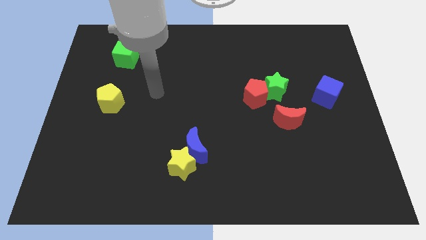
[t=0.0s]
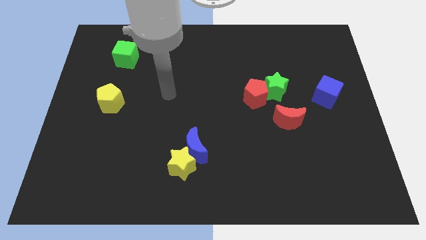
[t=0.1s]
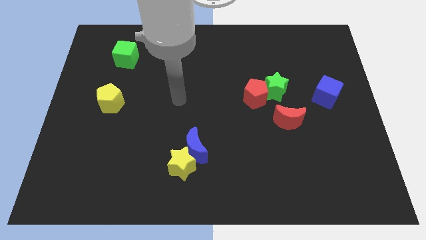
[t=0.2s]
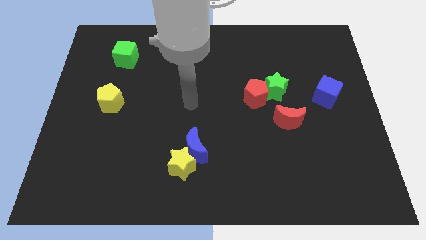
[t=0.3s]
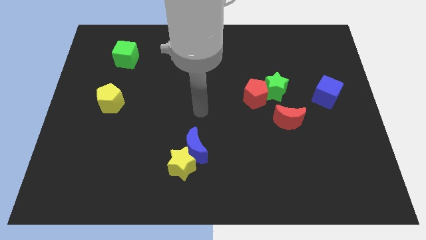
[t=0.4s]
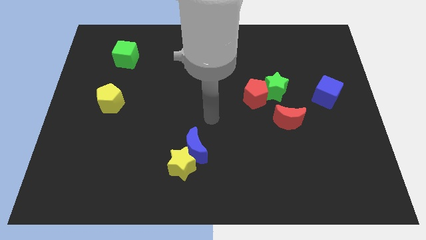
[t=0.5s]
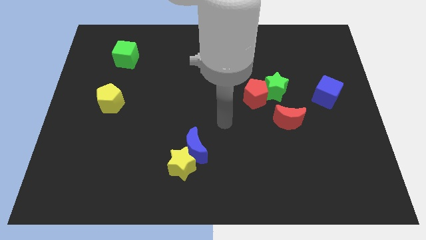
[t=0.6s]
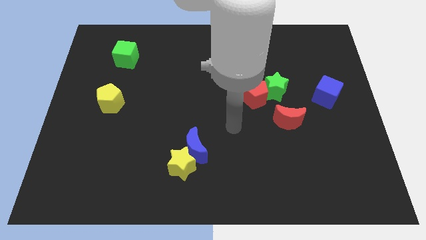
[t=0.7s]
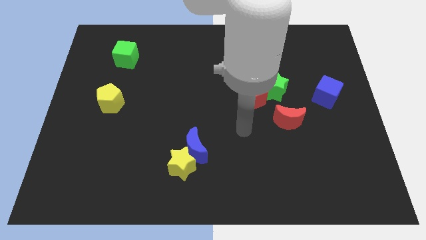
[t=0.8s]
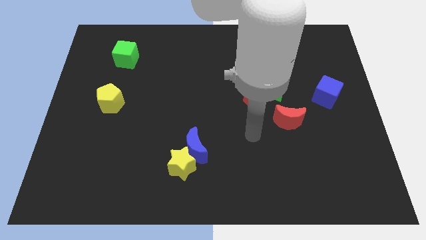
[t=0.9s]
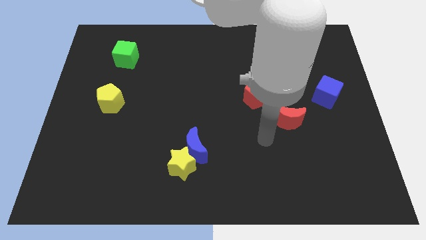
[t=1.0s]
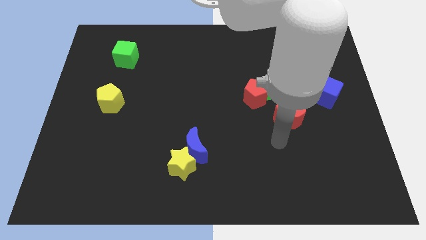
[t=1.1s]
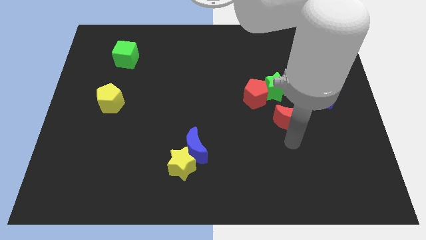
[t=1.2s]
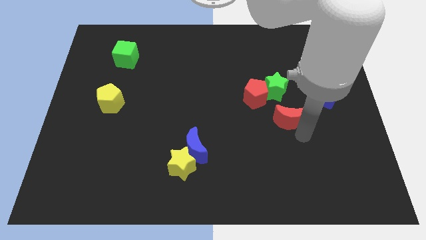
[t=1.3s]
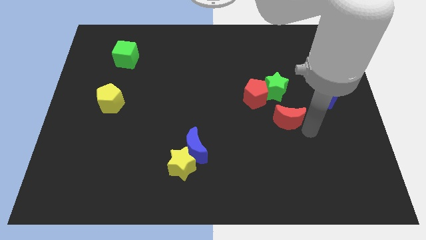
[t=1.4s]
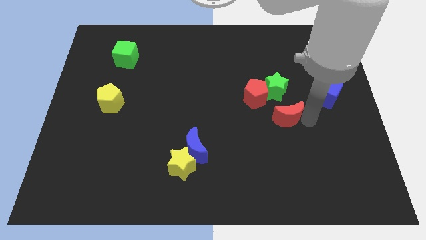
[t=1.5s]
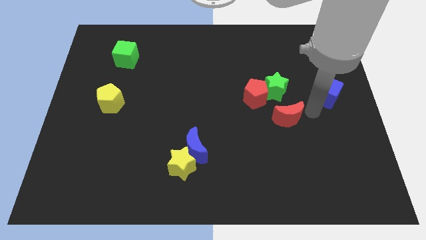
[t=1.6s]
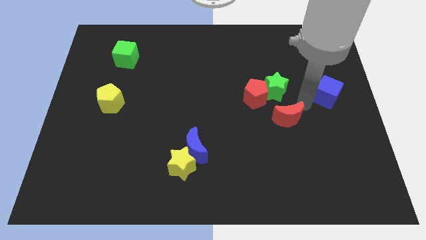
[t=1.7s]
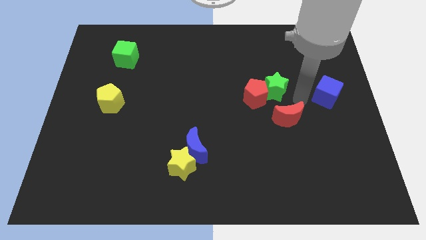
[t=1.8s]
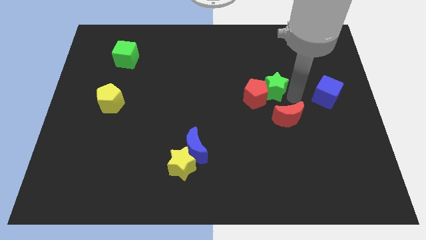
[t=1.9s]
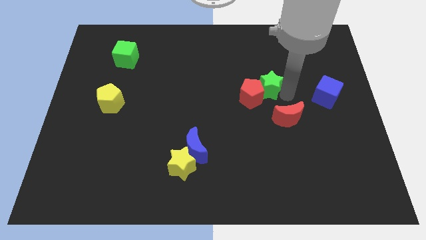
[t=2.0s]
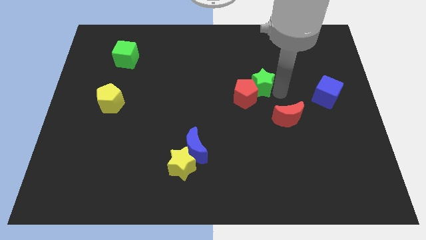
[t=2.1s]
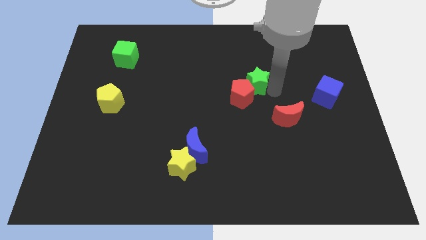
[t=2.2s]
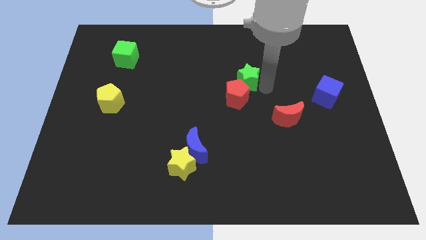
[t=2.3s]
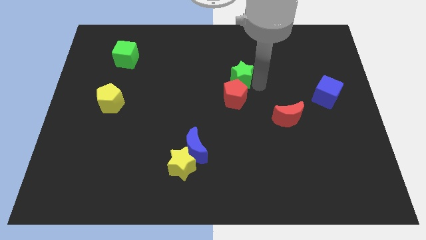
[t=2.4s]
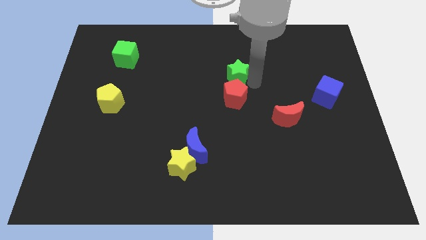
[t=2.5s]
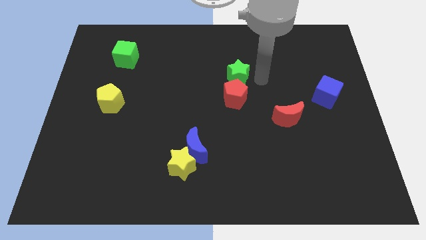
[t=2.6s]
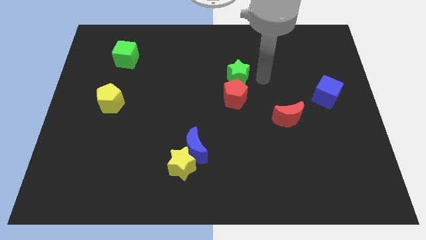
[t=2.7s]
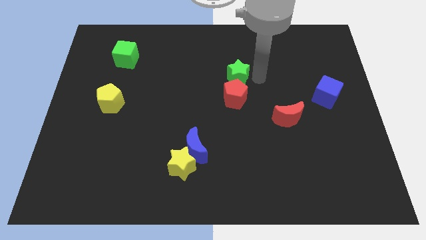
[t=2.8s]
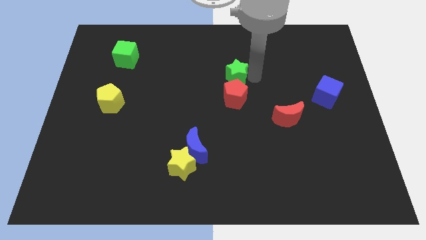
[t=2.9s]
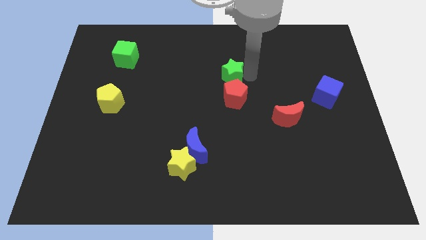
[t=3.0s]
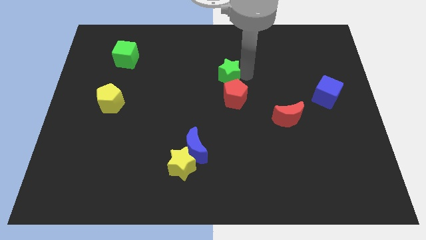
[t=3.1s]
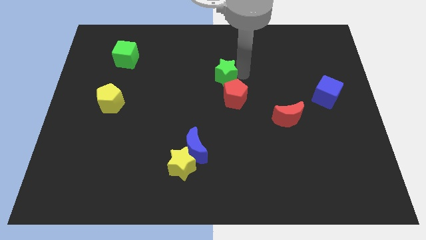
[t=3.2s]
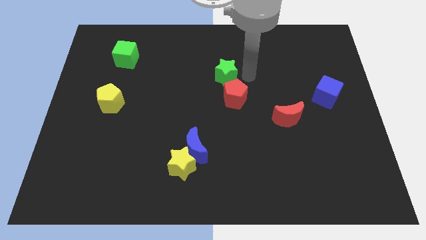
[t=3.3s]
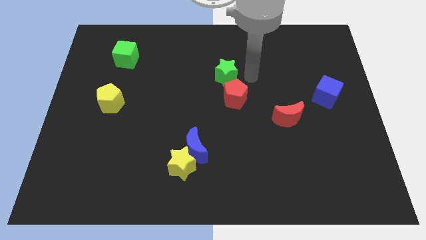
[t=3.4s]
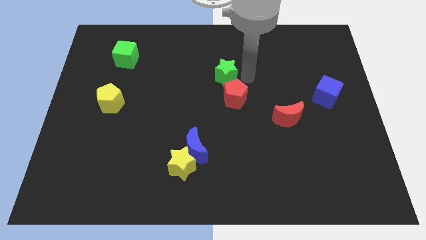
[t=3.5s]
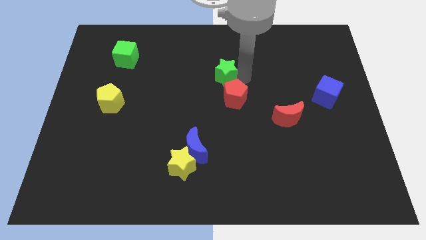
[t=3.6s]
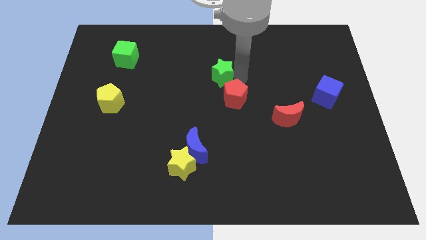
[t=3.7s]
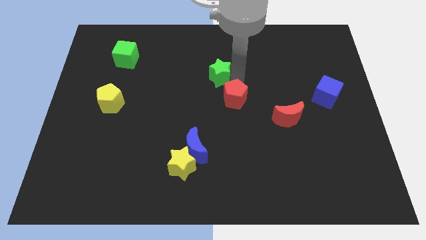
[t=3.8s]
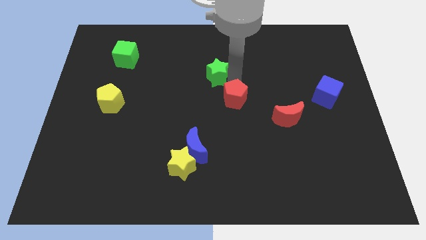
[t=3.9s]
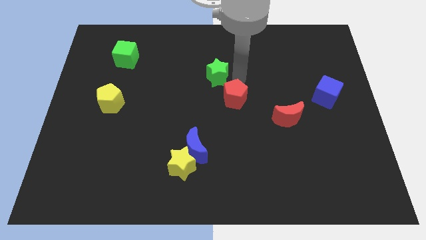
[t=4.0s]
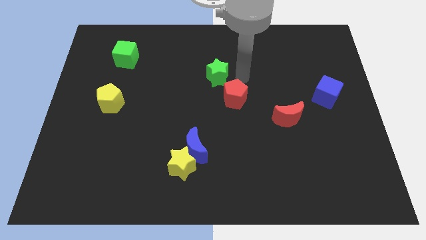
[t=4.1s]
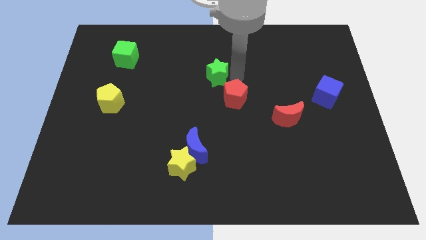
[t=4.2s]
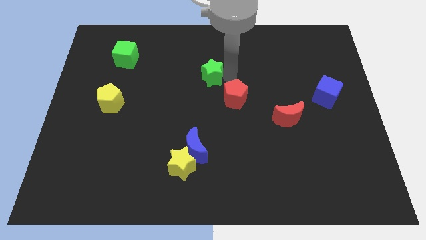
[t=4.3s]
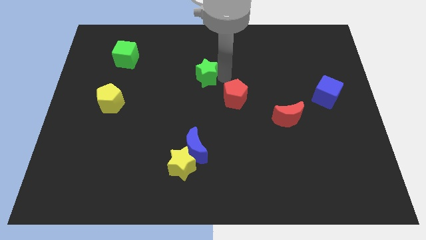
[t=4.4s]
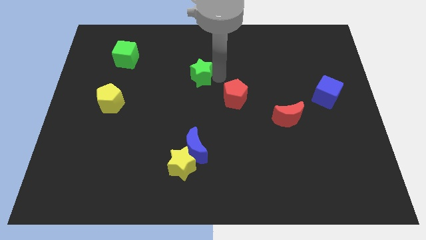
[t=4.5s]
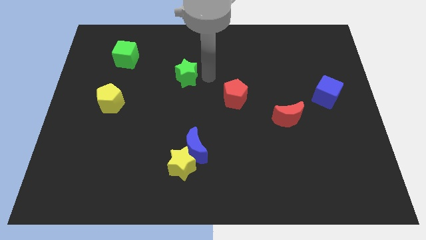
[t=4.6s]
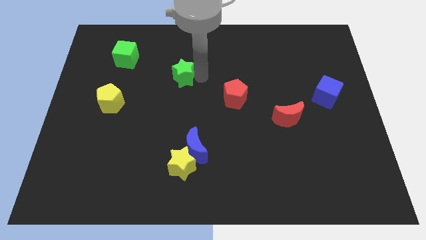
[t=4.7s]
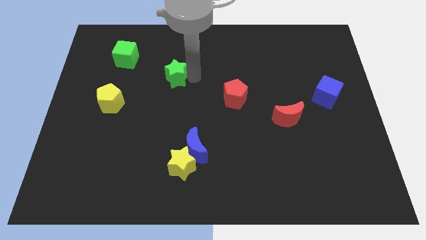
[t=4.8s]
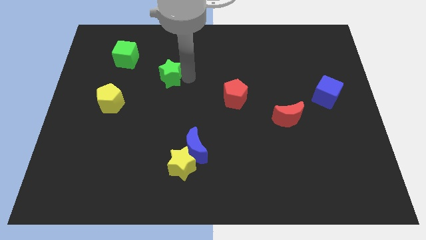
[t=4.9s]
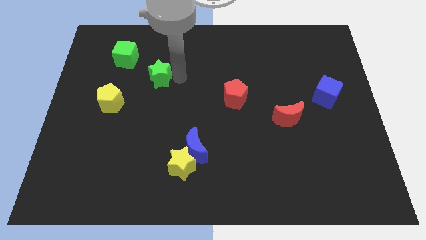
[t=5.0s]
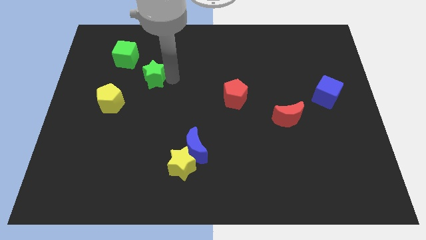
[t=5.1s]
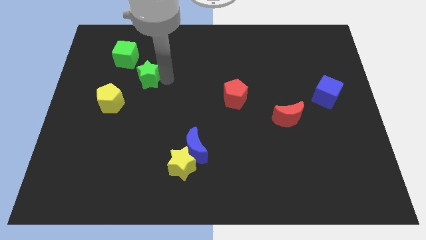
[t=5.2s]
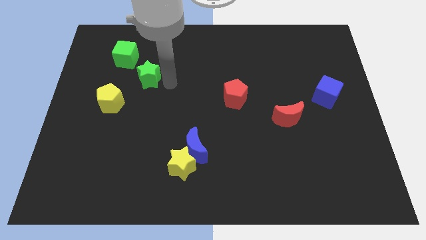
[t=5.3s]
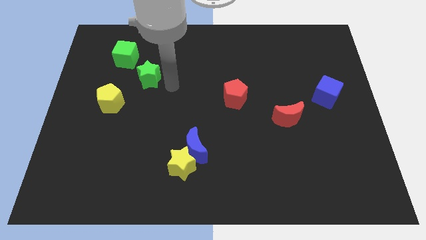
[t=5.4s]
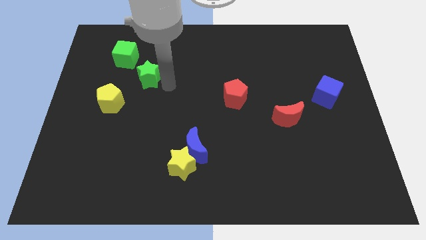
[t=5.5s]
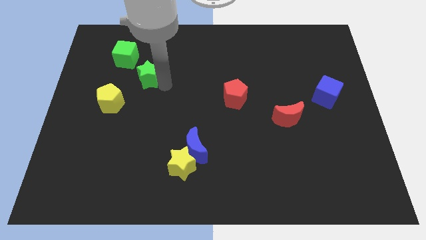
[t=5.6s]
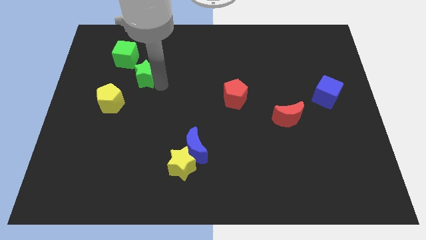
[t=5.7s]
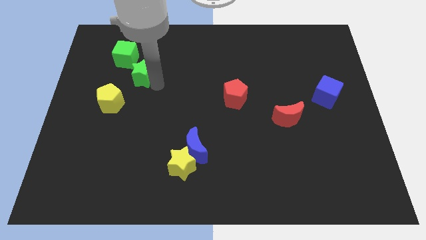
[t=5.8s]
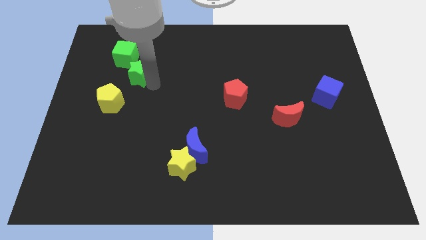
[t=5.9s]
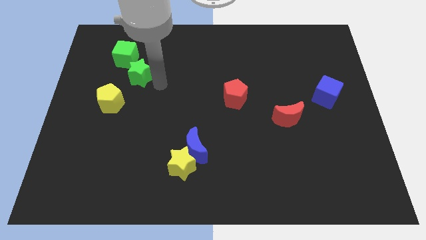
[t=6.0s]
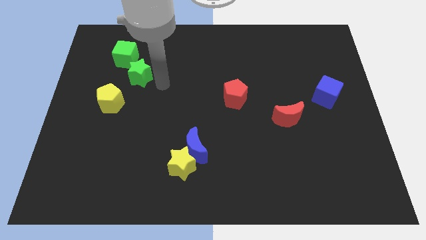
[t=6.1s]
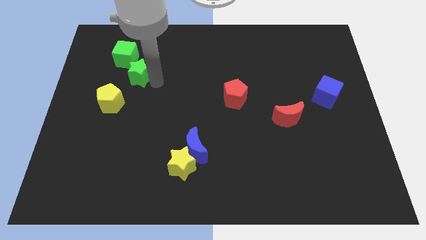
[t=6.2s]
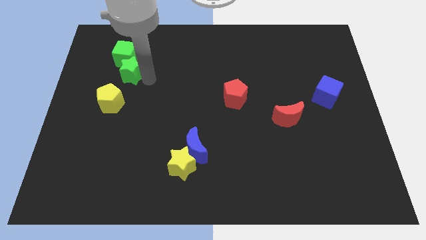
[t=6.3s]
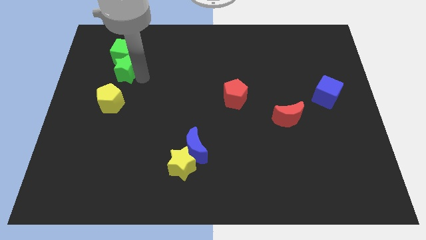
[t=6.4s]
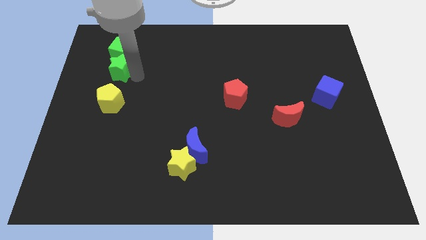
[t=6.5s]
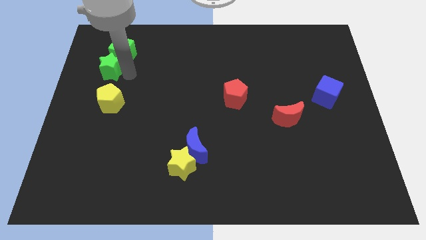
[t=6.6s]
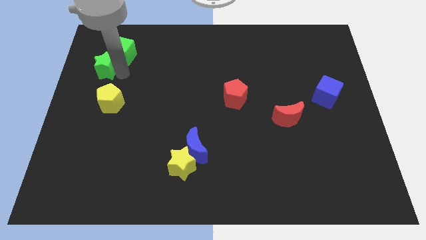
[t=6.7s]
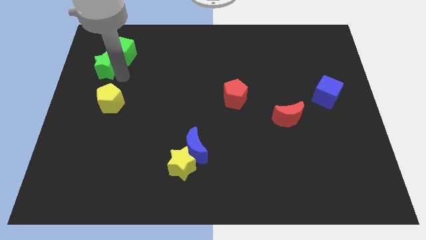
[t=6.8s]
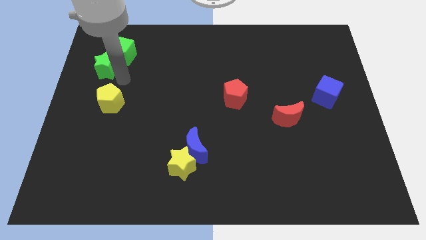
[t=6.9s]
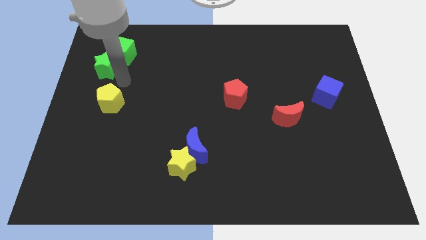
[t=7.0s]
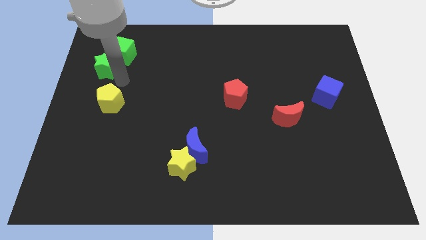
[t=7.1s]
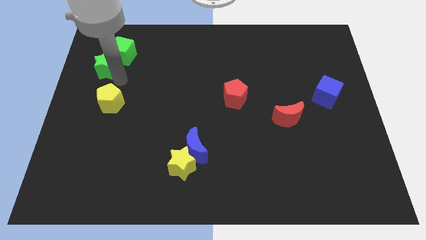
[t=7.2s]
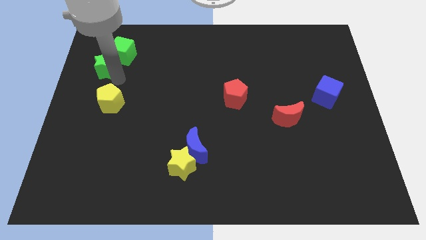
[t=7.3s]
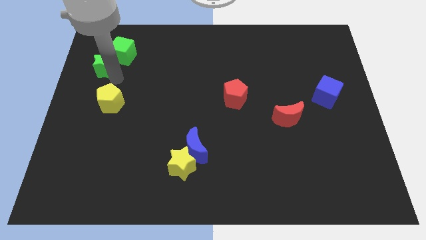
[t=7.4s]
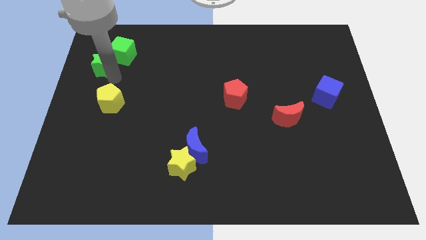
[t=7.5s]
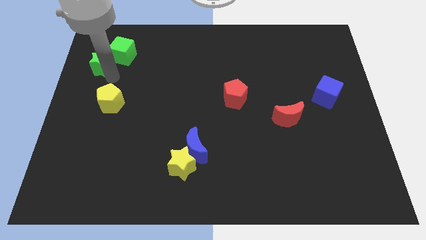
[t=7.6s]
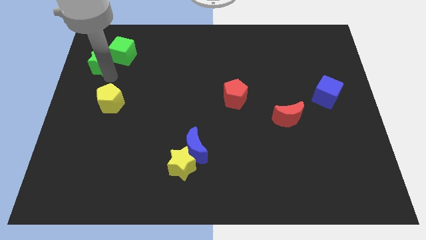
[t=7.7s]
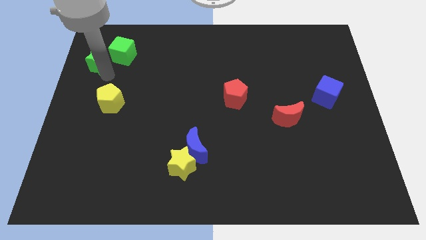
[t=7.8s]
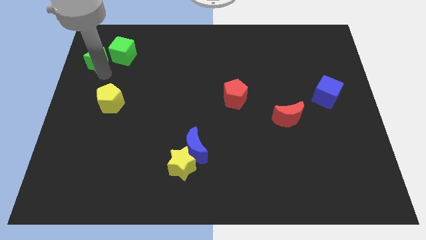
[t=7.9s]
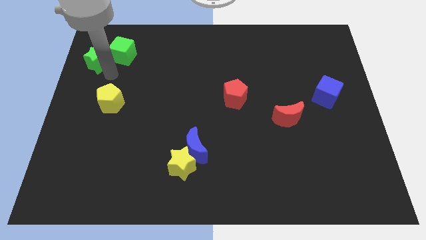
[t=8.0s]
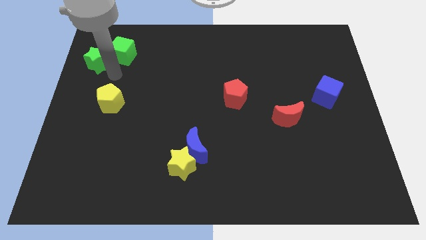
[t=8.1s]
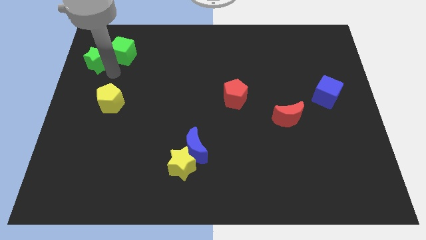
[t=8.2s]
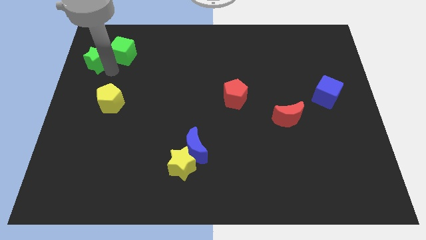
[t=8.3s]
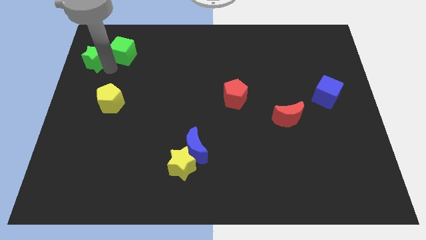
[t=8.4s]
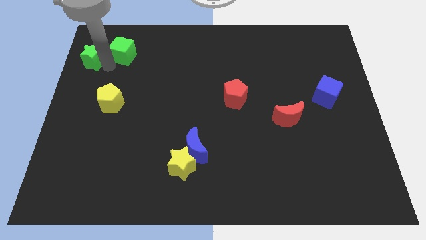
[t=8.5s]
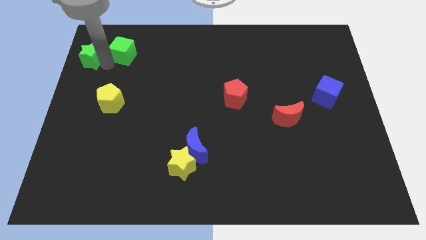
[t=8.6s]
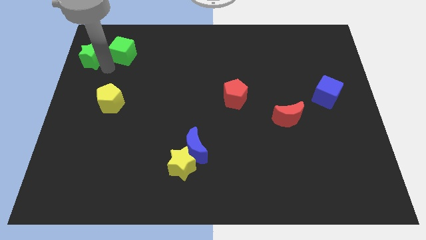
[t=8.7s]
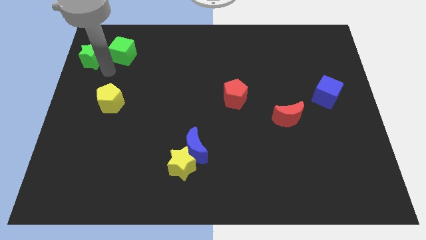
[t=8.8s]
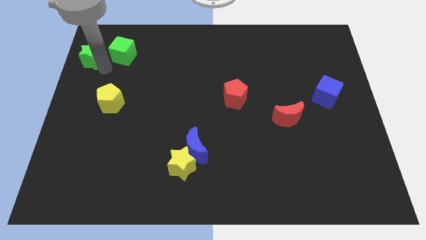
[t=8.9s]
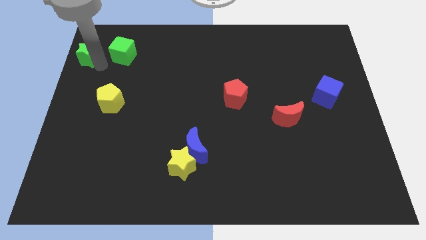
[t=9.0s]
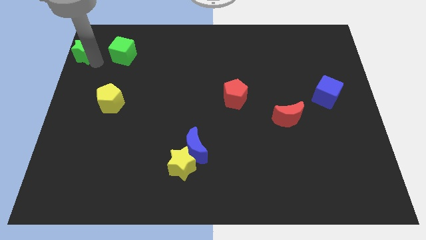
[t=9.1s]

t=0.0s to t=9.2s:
push the green star to the top left of the board
